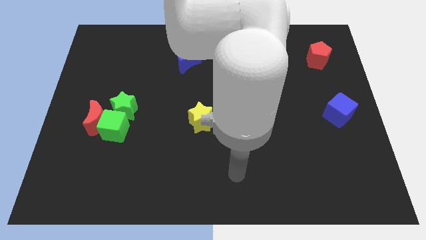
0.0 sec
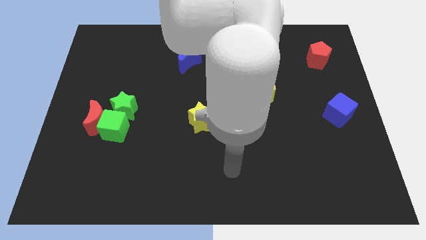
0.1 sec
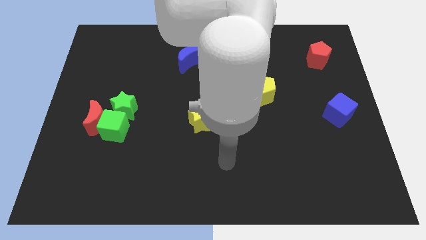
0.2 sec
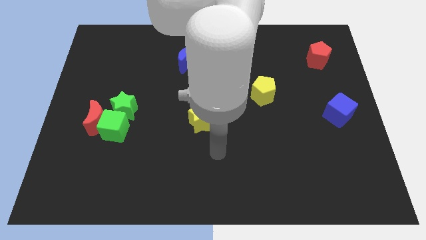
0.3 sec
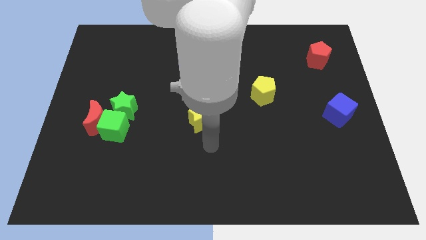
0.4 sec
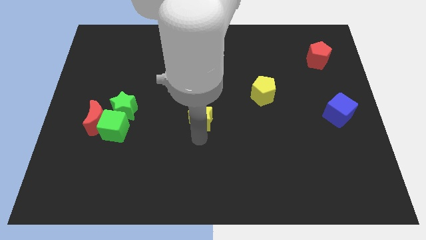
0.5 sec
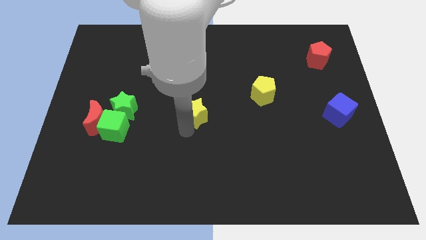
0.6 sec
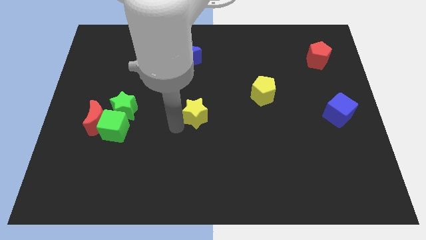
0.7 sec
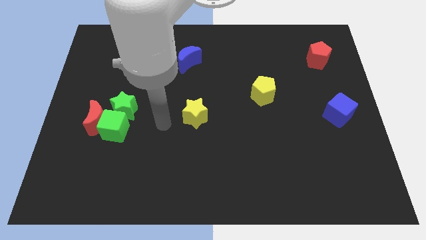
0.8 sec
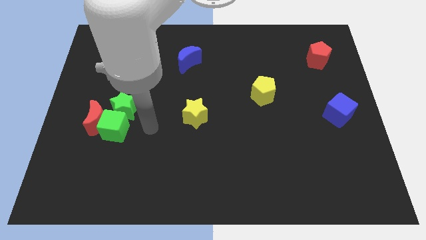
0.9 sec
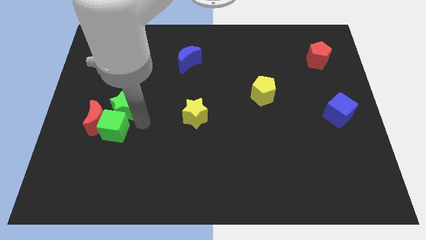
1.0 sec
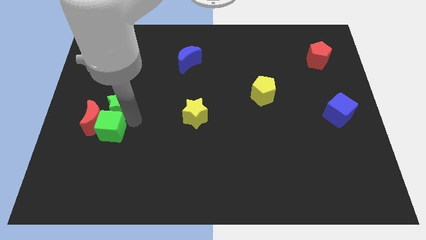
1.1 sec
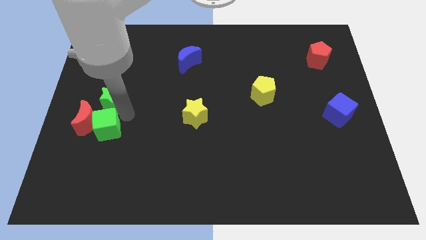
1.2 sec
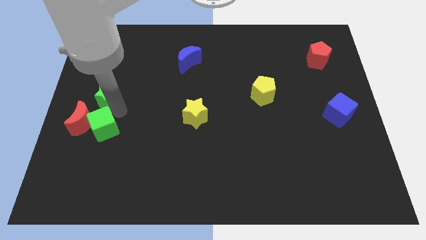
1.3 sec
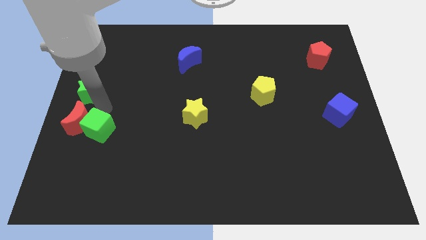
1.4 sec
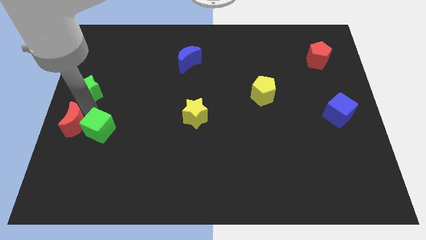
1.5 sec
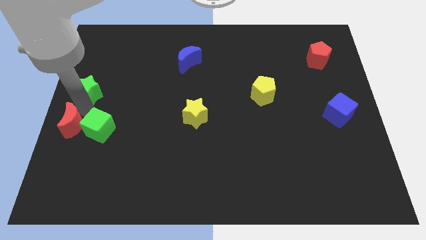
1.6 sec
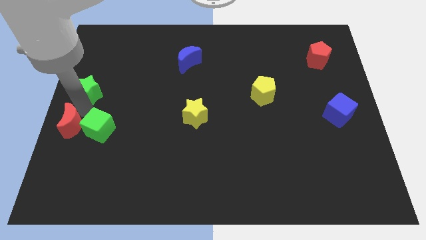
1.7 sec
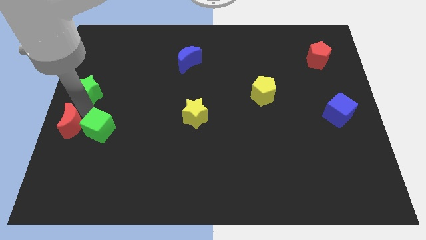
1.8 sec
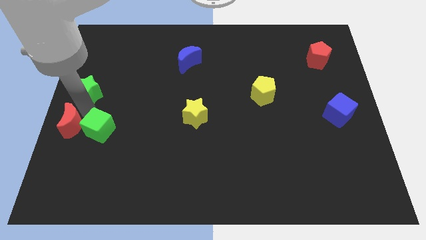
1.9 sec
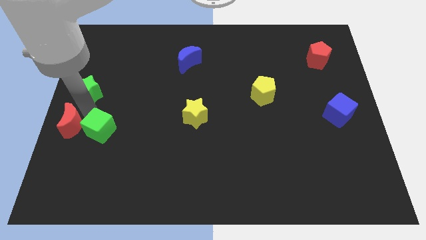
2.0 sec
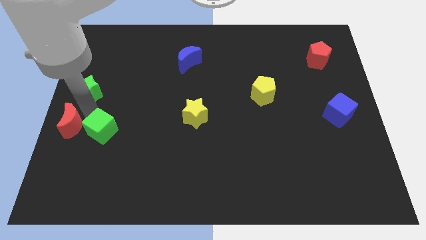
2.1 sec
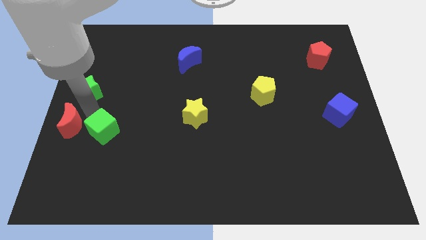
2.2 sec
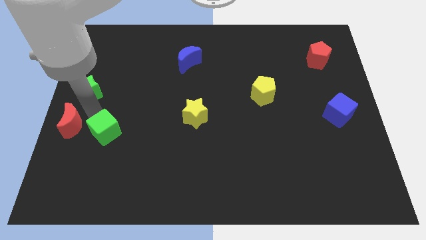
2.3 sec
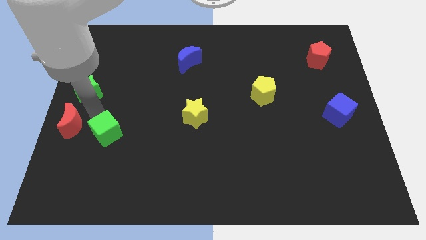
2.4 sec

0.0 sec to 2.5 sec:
pull the green cube apart from the red moon and green star

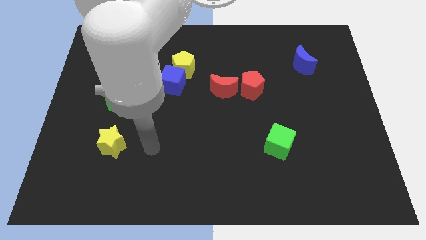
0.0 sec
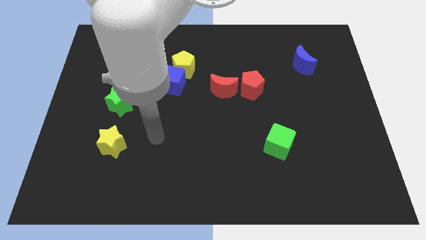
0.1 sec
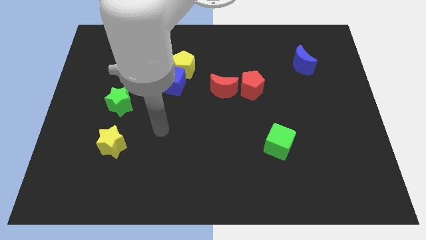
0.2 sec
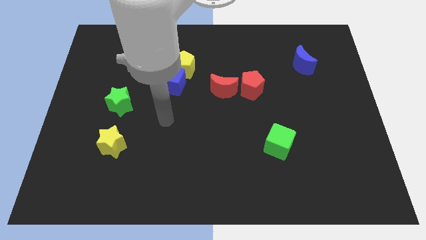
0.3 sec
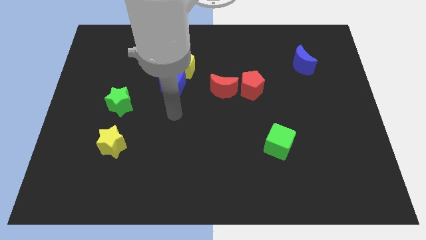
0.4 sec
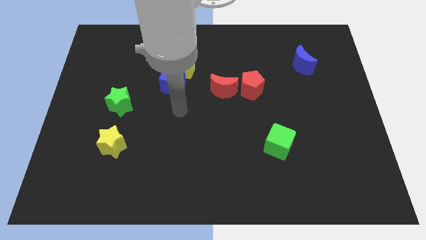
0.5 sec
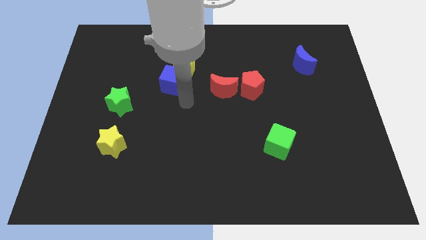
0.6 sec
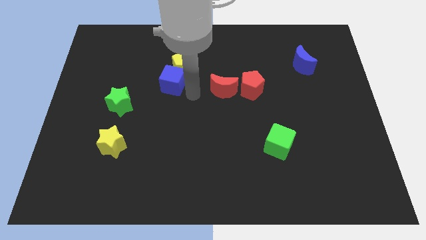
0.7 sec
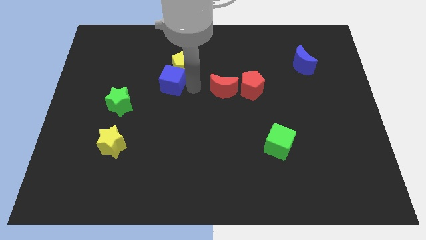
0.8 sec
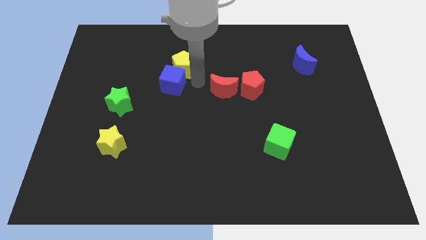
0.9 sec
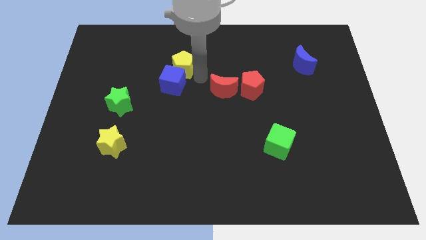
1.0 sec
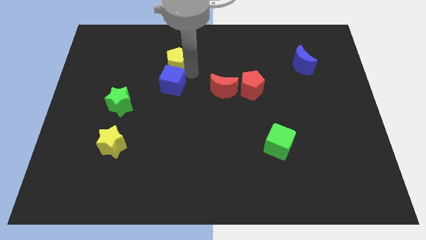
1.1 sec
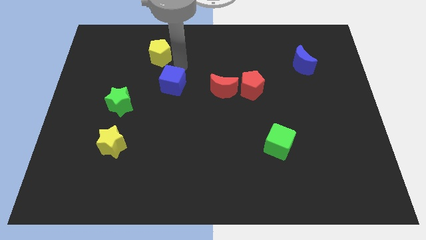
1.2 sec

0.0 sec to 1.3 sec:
move the blue cube away from the yellow pentagon

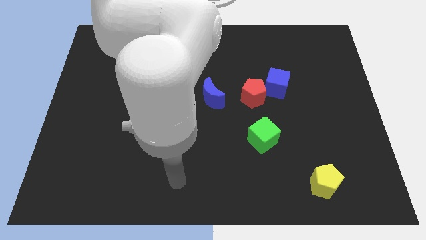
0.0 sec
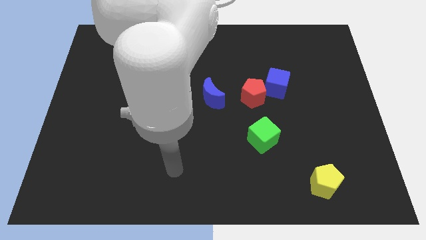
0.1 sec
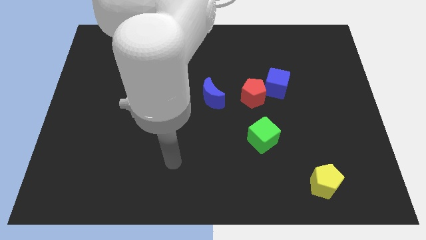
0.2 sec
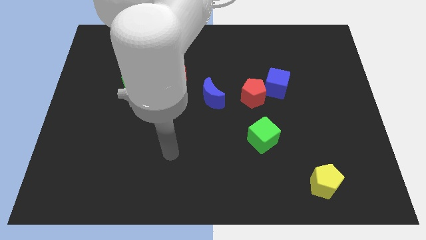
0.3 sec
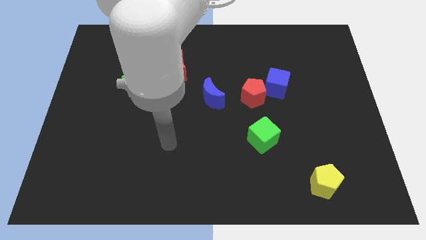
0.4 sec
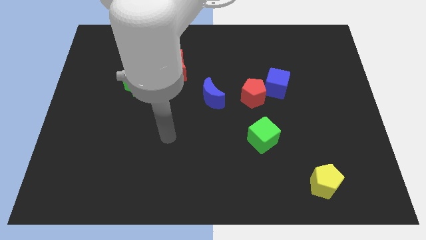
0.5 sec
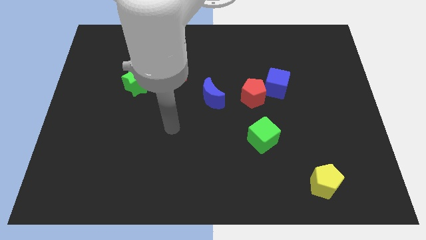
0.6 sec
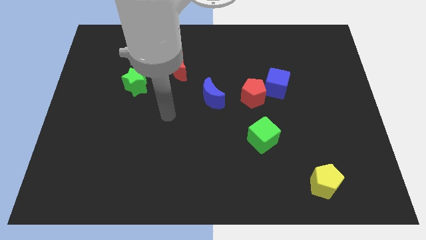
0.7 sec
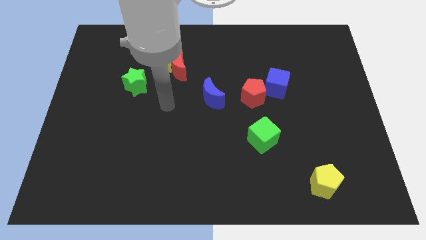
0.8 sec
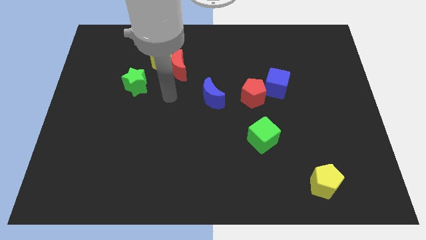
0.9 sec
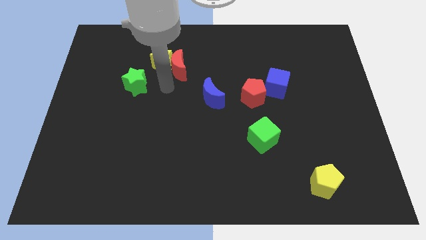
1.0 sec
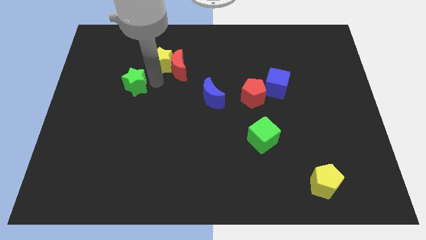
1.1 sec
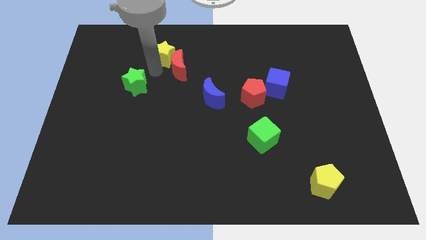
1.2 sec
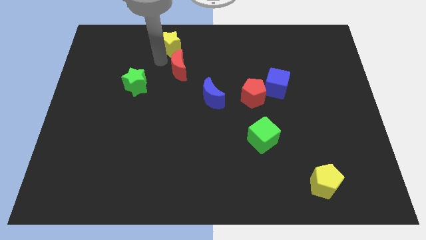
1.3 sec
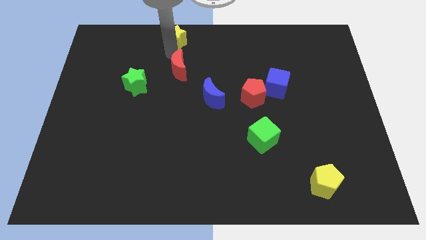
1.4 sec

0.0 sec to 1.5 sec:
move the red moon away from the yellow star

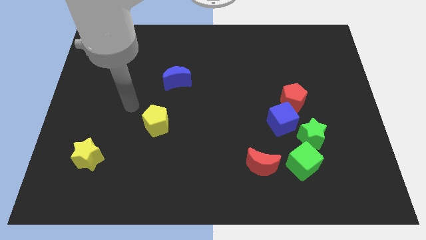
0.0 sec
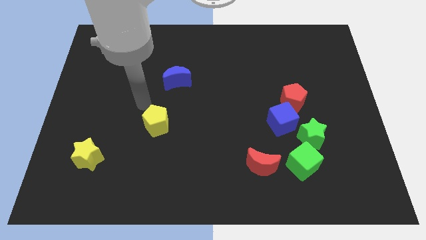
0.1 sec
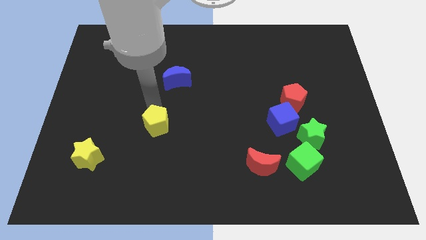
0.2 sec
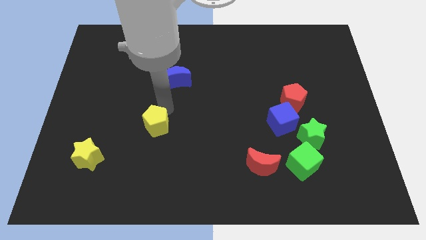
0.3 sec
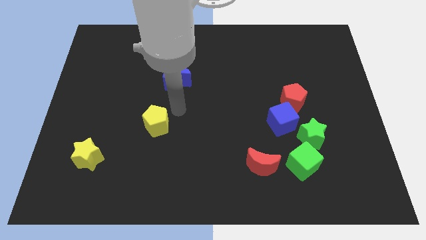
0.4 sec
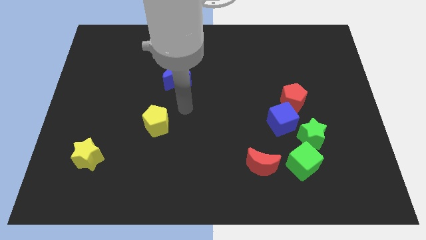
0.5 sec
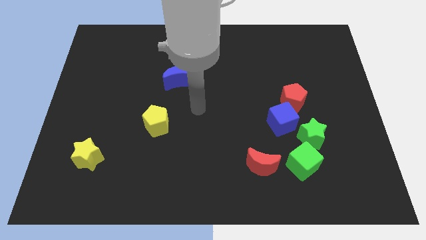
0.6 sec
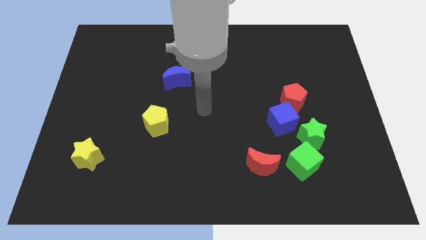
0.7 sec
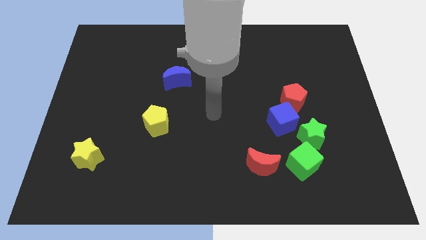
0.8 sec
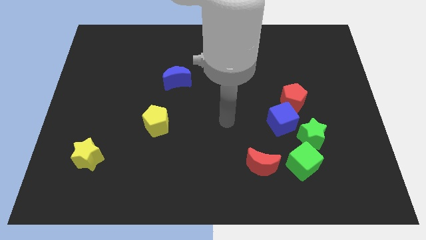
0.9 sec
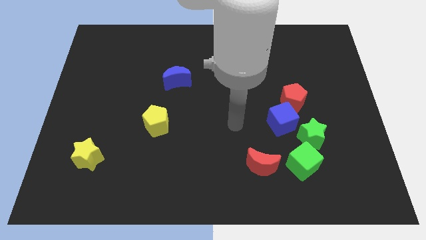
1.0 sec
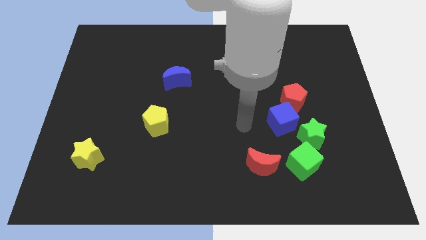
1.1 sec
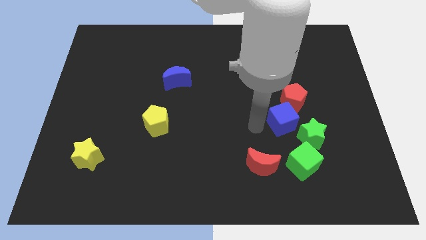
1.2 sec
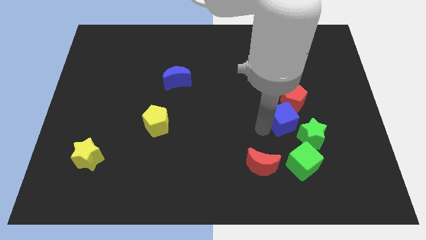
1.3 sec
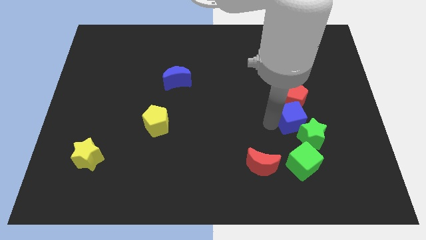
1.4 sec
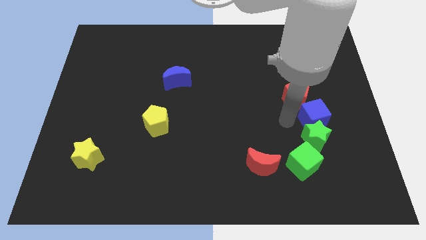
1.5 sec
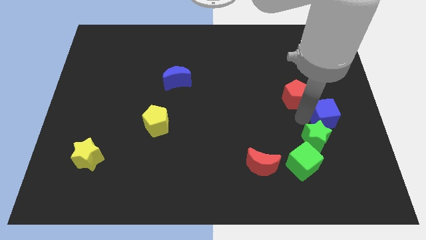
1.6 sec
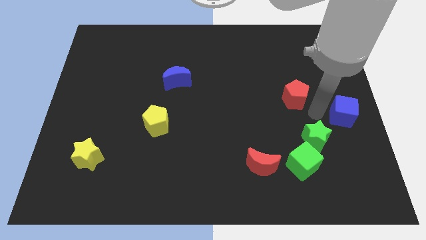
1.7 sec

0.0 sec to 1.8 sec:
move the red pentagon away from the blue cube

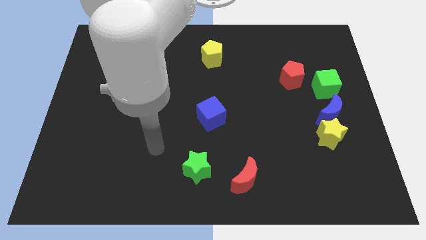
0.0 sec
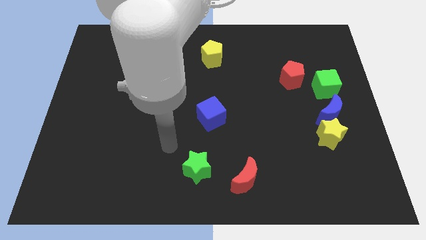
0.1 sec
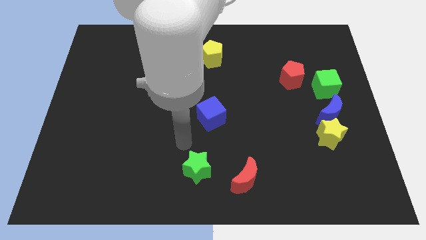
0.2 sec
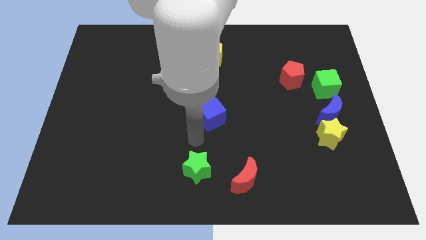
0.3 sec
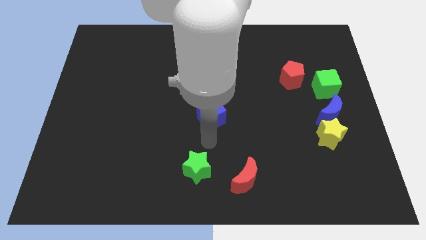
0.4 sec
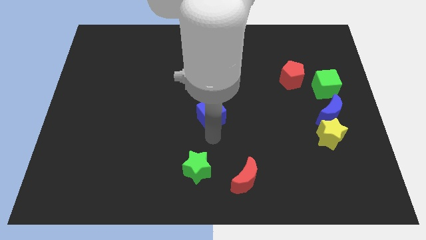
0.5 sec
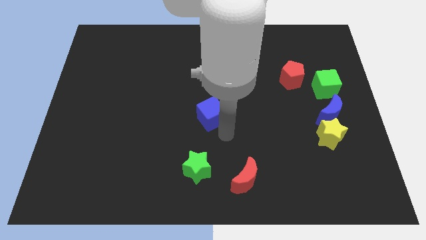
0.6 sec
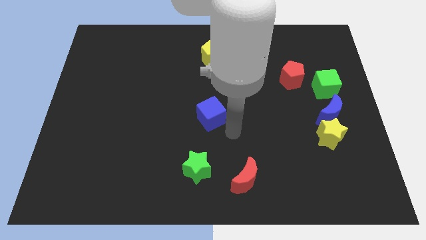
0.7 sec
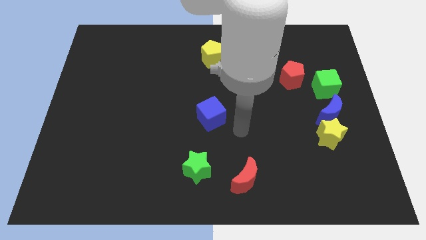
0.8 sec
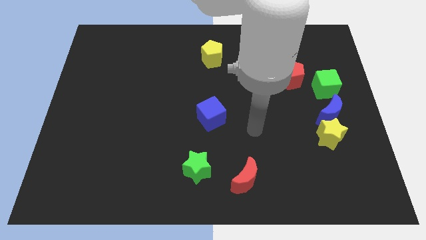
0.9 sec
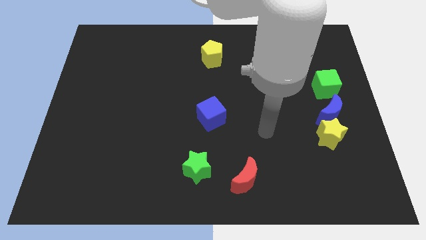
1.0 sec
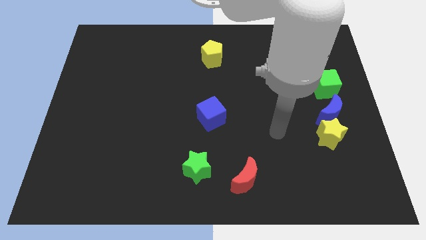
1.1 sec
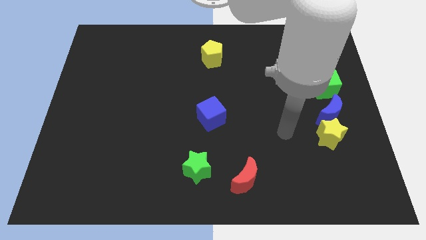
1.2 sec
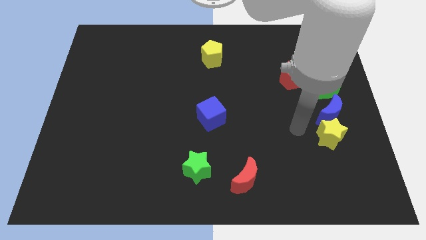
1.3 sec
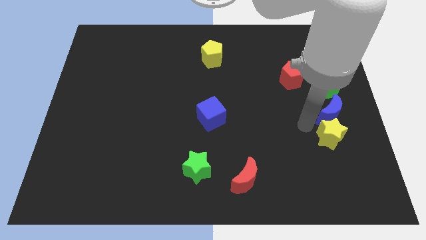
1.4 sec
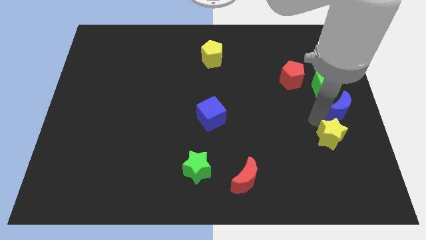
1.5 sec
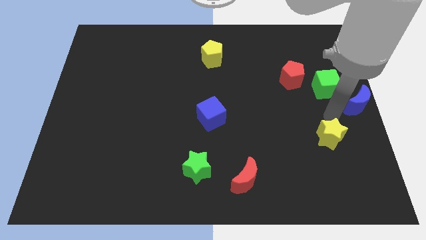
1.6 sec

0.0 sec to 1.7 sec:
move the yellow star away from the blue moon

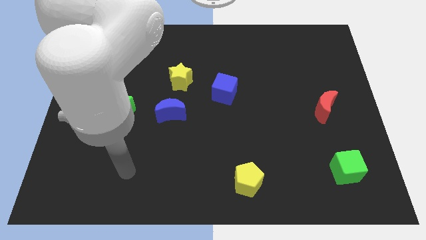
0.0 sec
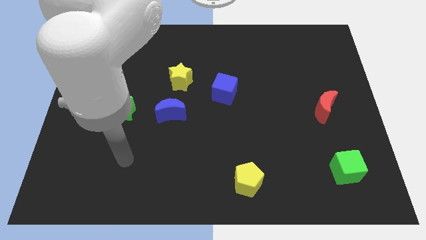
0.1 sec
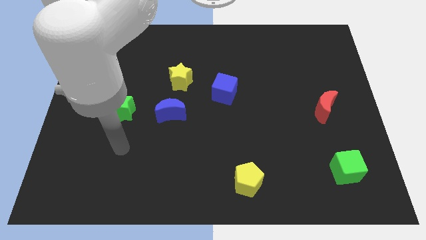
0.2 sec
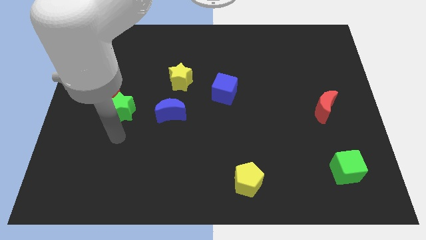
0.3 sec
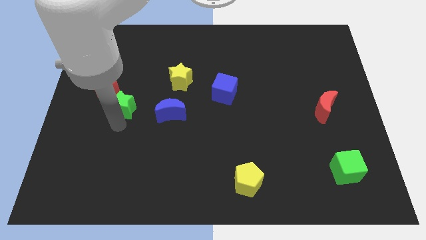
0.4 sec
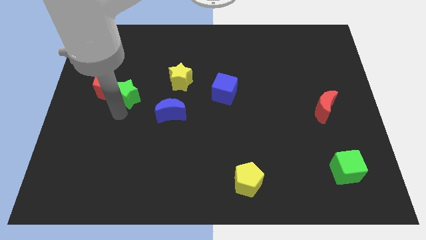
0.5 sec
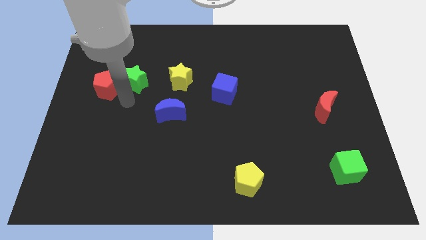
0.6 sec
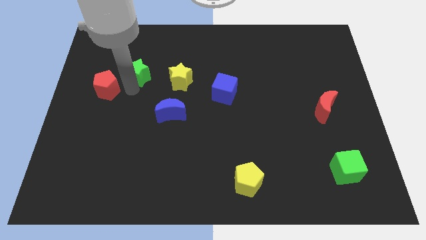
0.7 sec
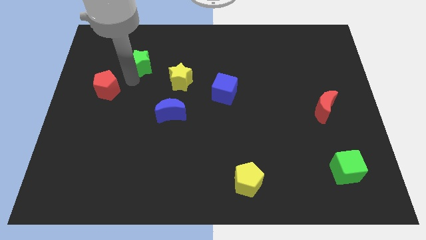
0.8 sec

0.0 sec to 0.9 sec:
move the red pentagon away from the green star
